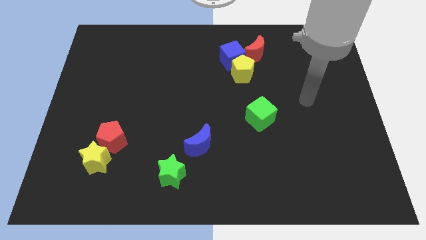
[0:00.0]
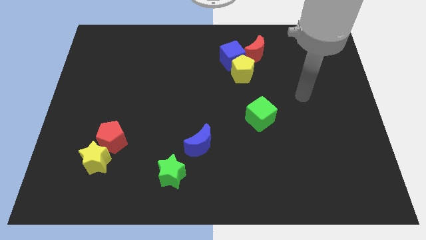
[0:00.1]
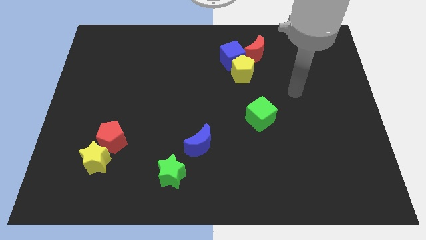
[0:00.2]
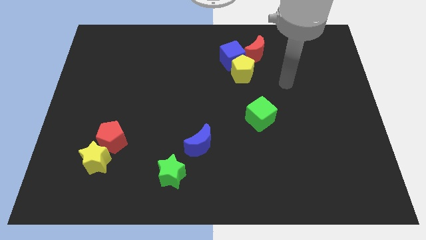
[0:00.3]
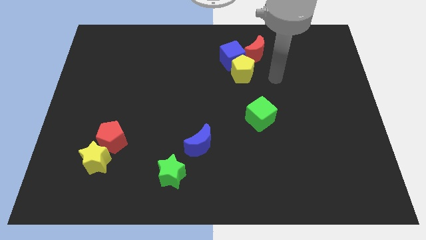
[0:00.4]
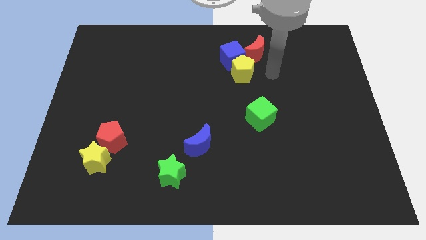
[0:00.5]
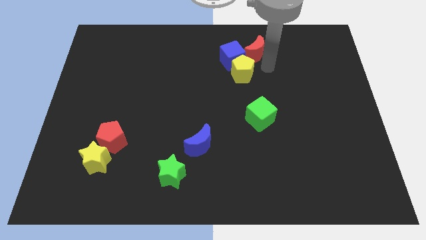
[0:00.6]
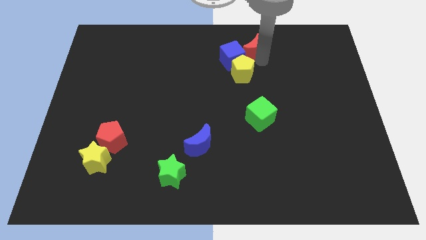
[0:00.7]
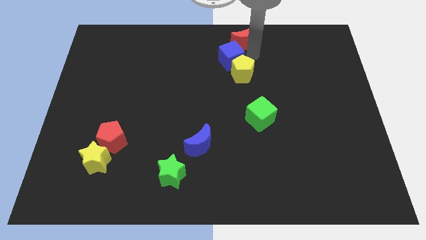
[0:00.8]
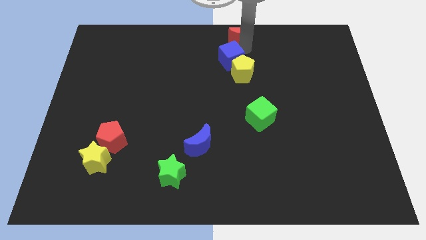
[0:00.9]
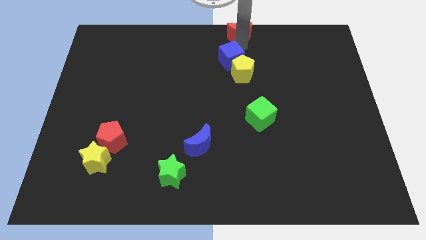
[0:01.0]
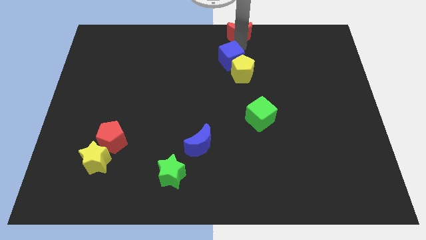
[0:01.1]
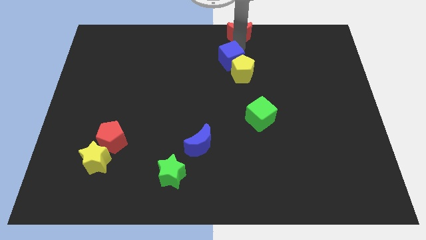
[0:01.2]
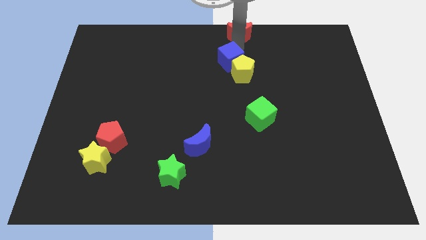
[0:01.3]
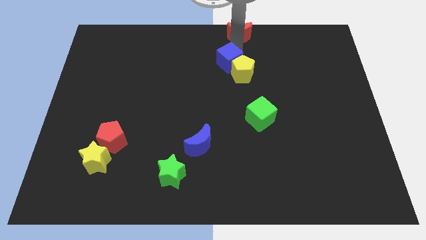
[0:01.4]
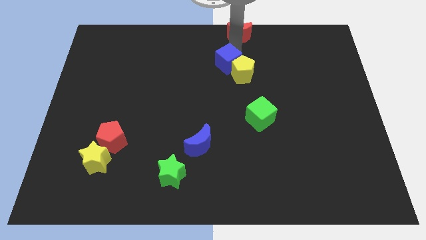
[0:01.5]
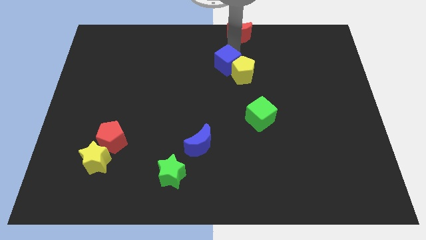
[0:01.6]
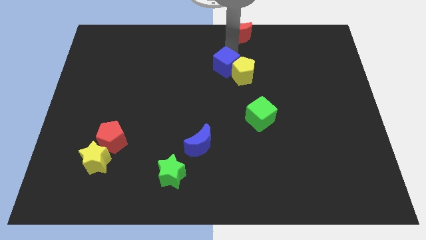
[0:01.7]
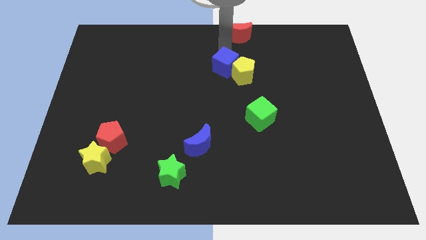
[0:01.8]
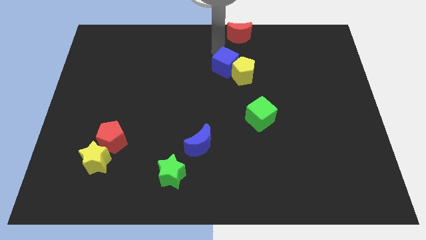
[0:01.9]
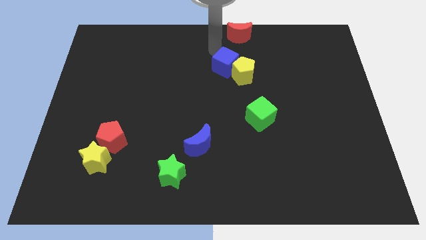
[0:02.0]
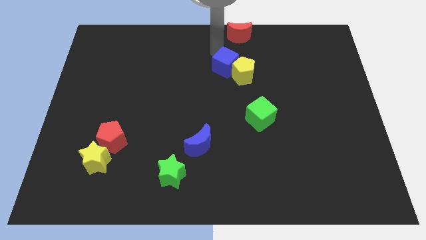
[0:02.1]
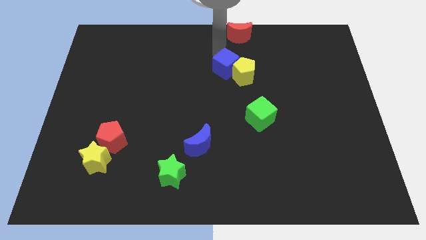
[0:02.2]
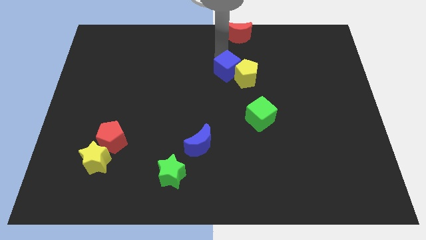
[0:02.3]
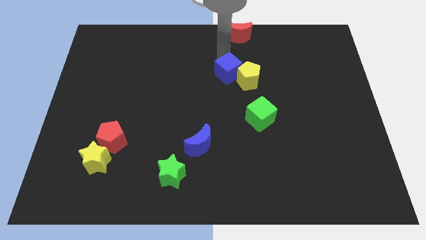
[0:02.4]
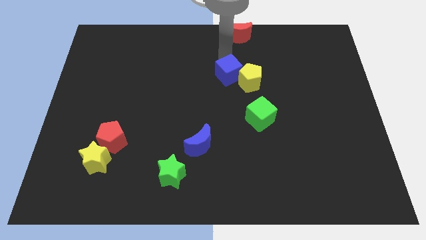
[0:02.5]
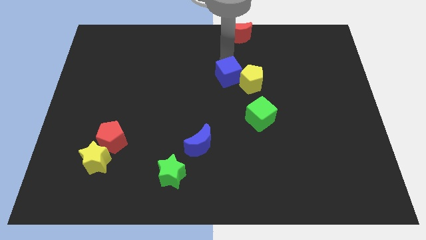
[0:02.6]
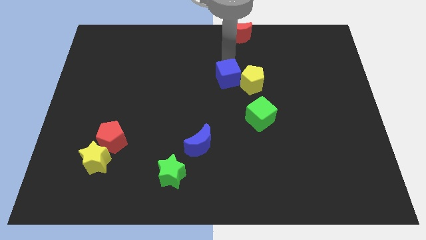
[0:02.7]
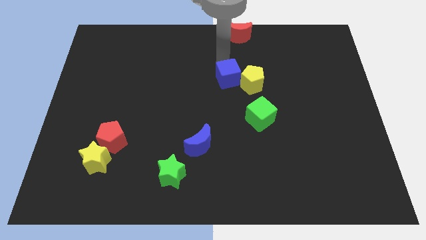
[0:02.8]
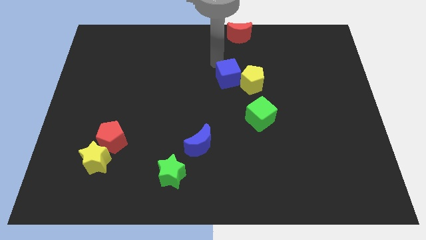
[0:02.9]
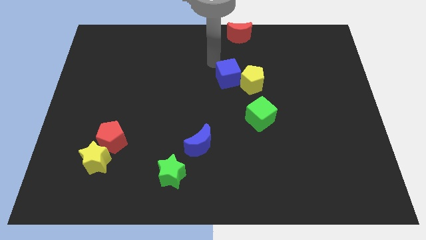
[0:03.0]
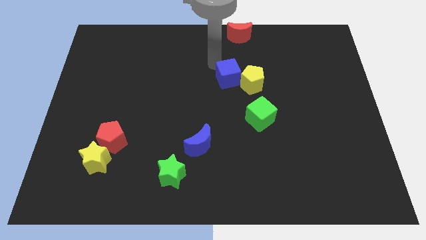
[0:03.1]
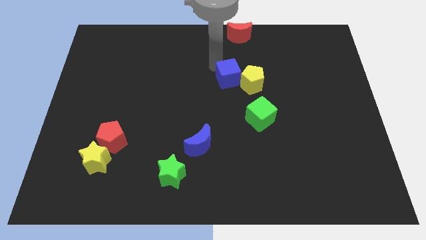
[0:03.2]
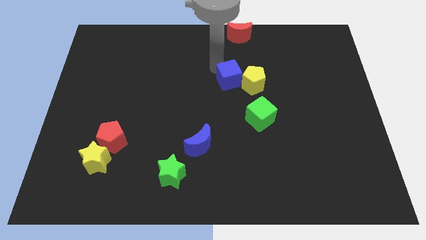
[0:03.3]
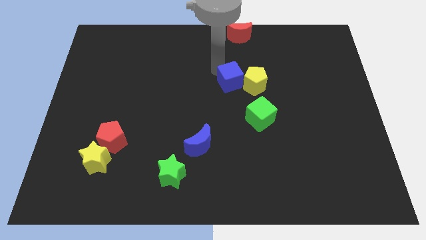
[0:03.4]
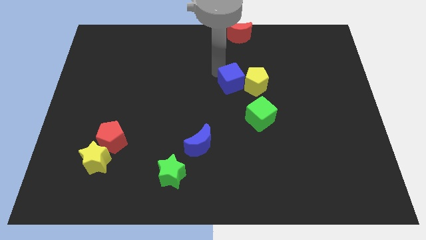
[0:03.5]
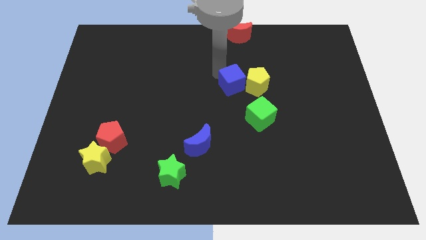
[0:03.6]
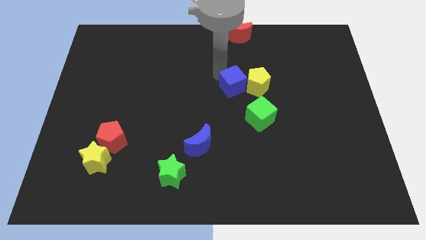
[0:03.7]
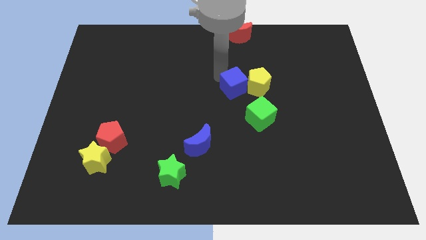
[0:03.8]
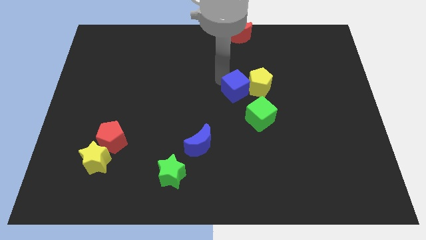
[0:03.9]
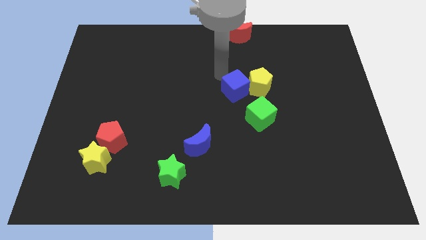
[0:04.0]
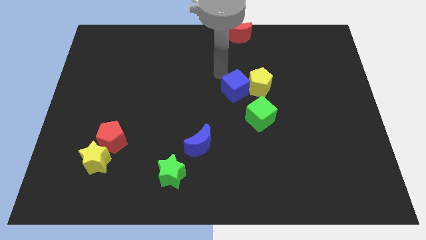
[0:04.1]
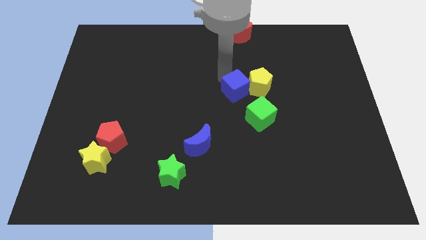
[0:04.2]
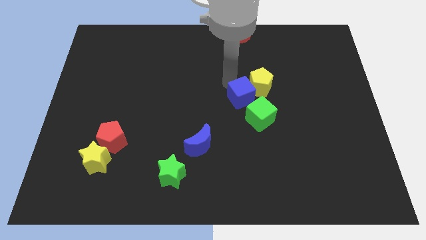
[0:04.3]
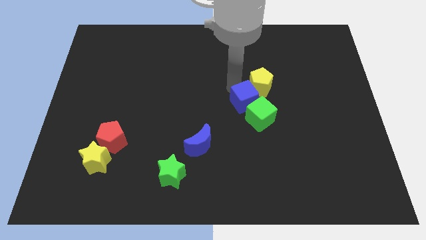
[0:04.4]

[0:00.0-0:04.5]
push the blue cube close to the green cube

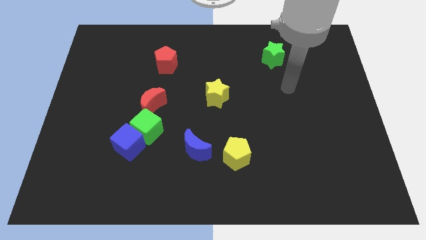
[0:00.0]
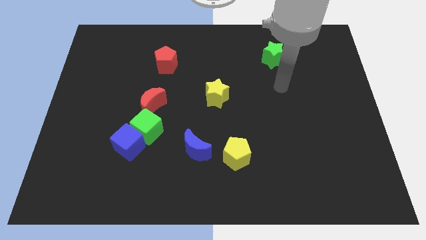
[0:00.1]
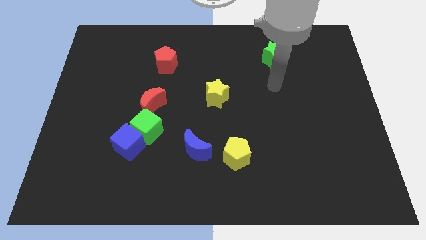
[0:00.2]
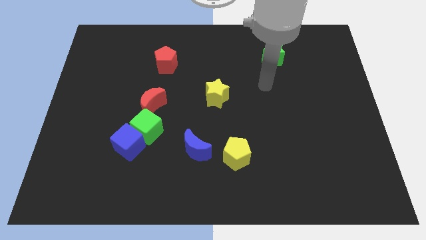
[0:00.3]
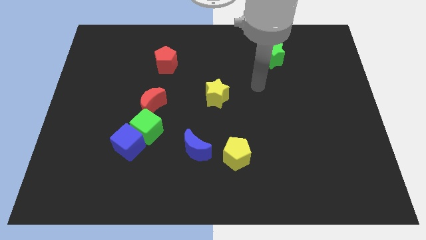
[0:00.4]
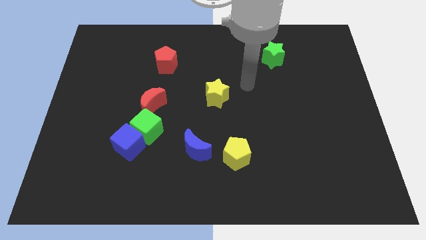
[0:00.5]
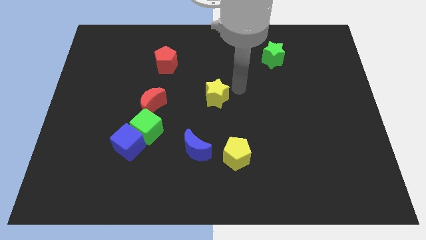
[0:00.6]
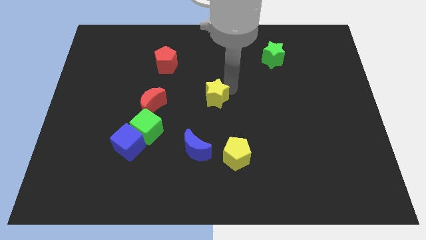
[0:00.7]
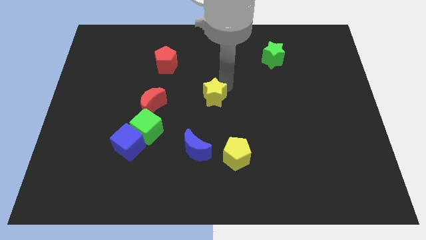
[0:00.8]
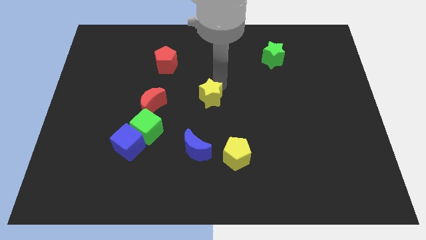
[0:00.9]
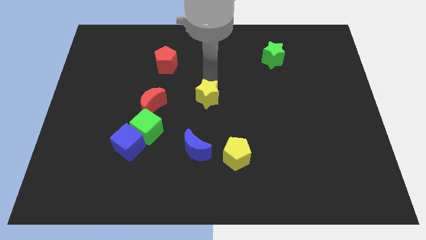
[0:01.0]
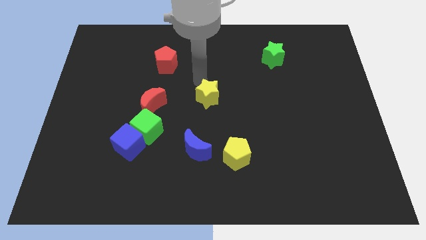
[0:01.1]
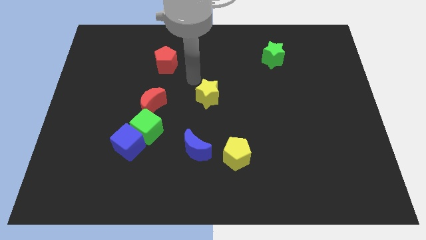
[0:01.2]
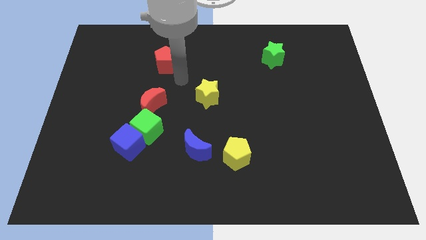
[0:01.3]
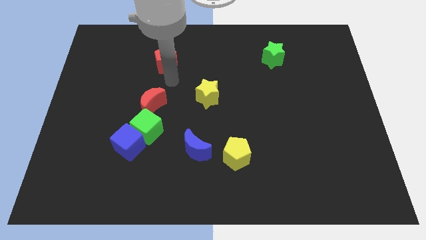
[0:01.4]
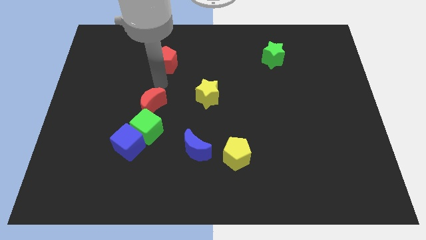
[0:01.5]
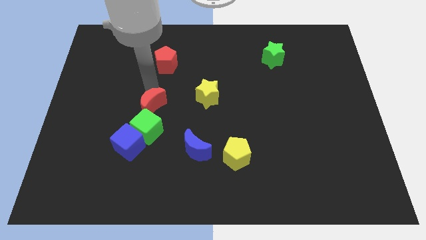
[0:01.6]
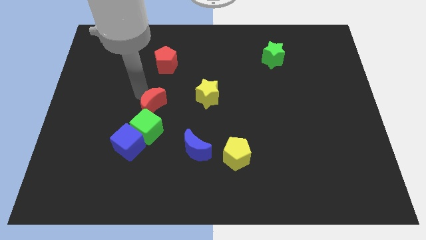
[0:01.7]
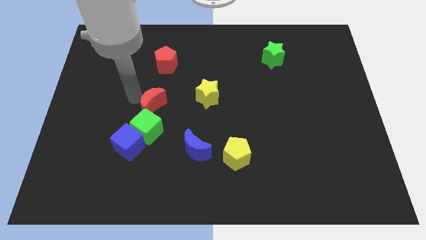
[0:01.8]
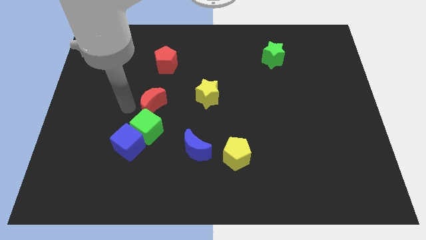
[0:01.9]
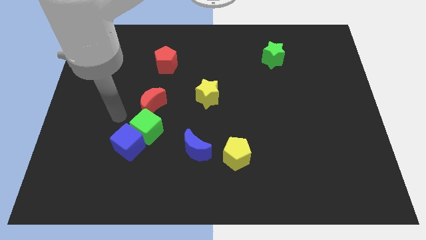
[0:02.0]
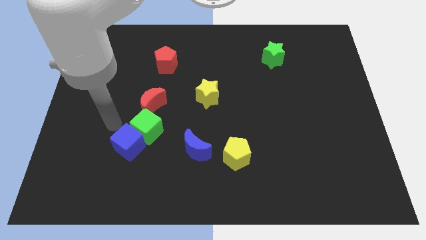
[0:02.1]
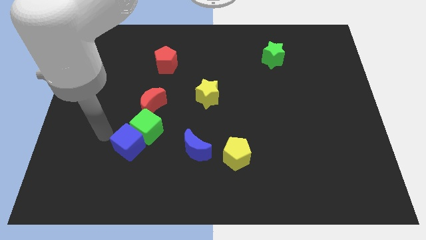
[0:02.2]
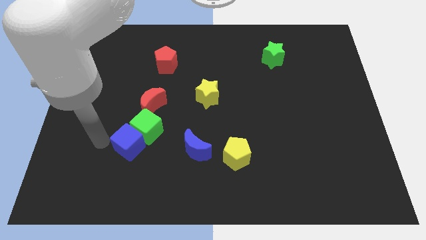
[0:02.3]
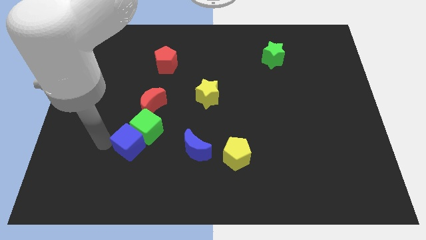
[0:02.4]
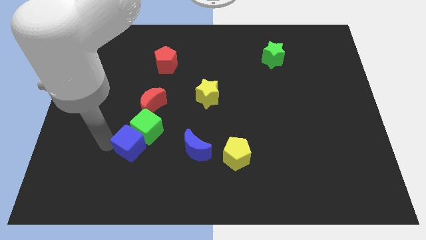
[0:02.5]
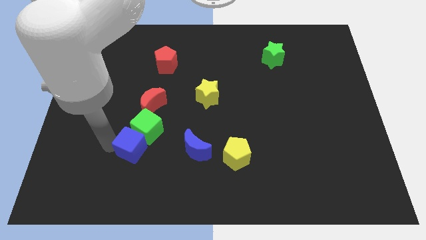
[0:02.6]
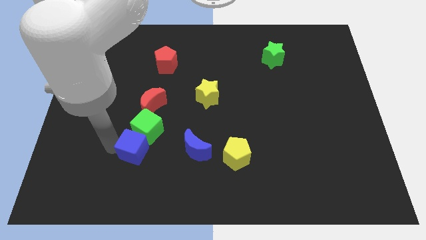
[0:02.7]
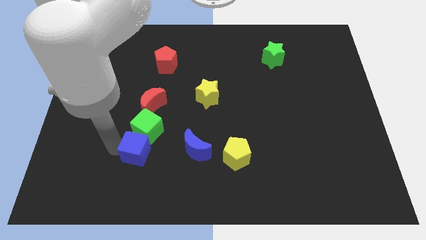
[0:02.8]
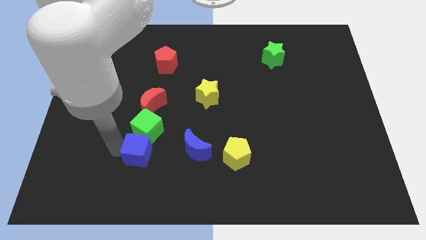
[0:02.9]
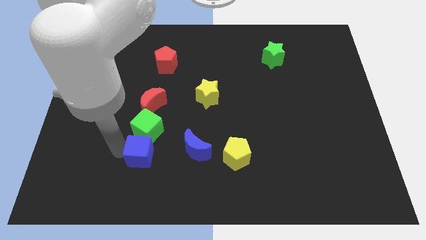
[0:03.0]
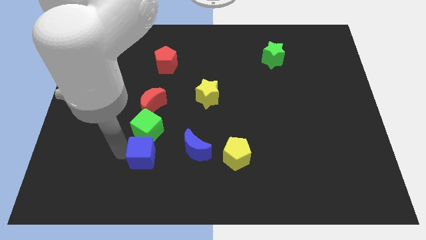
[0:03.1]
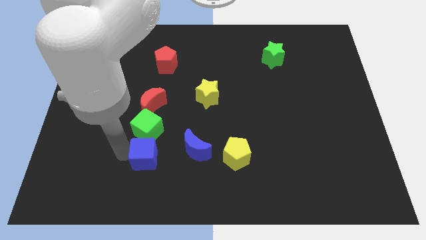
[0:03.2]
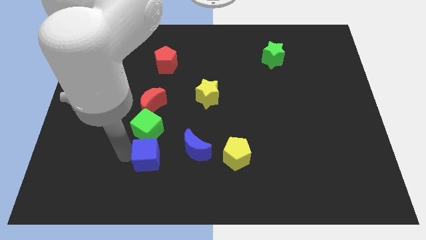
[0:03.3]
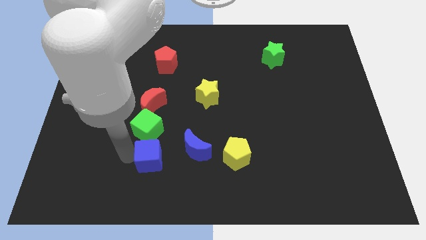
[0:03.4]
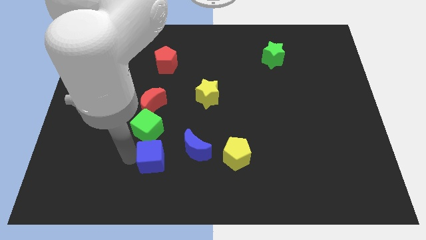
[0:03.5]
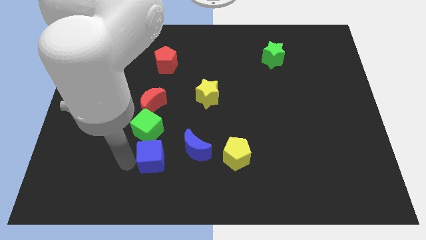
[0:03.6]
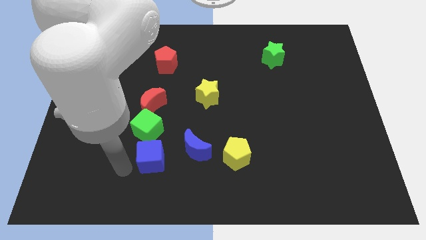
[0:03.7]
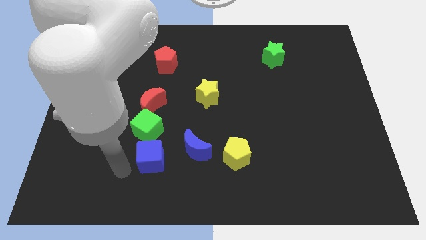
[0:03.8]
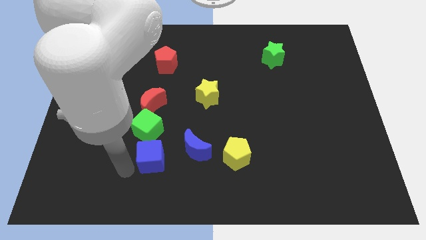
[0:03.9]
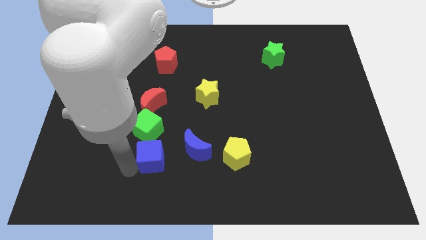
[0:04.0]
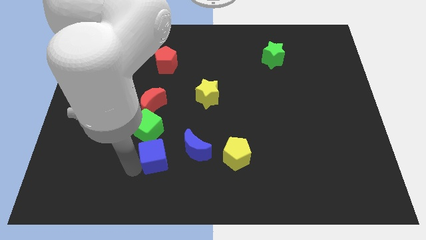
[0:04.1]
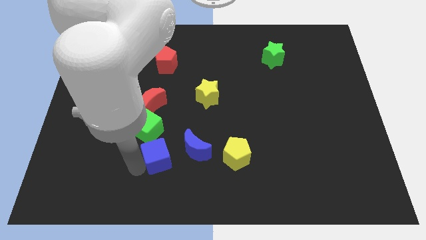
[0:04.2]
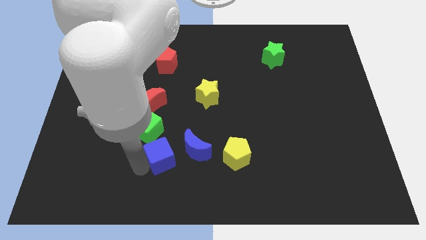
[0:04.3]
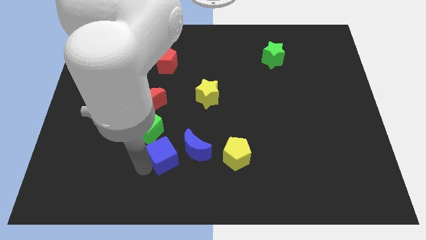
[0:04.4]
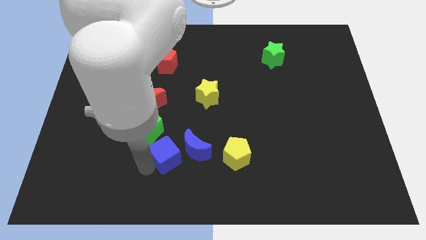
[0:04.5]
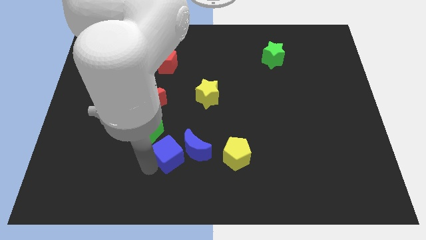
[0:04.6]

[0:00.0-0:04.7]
move the blue cube next to the blue moon
